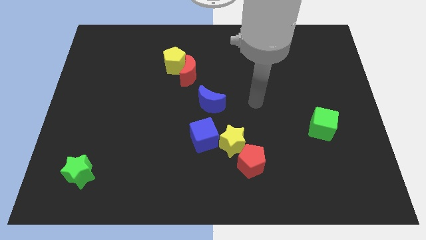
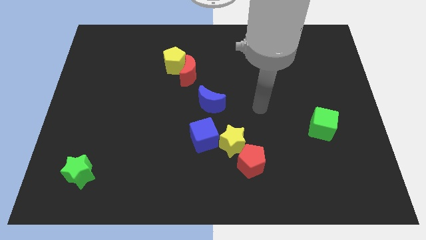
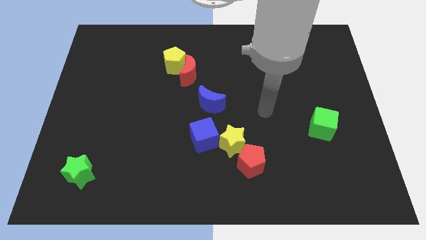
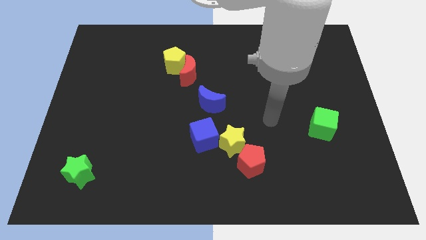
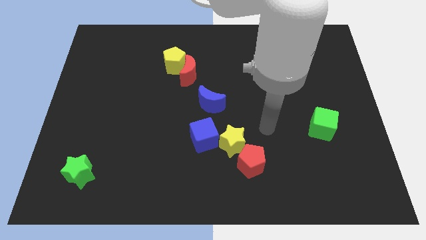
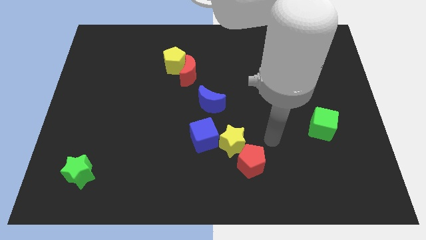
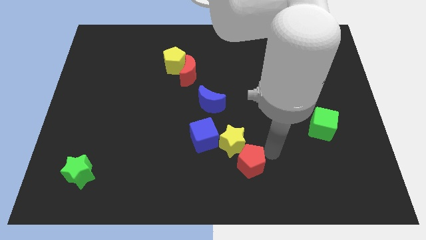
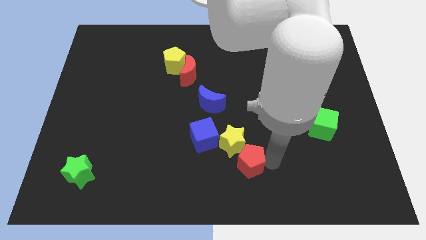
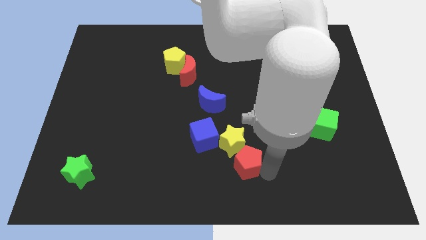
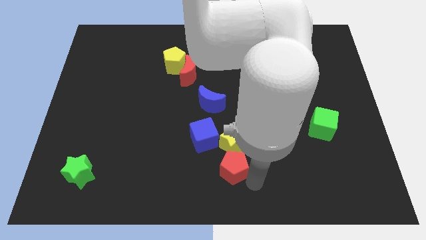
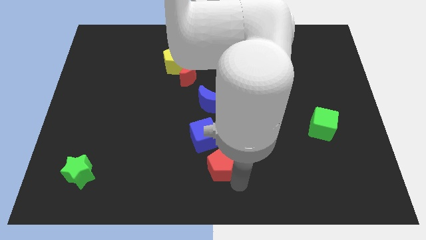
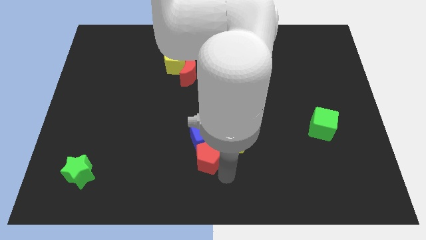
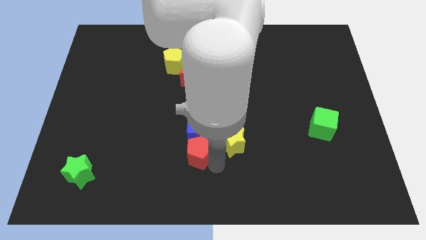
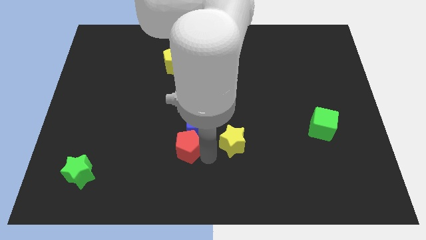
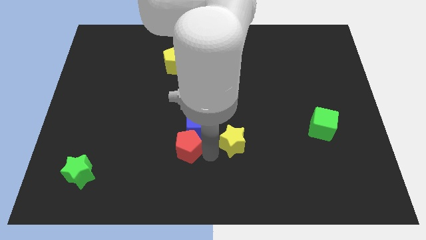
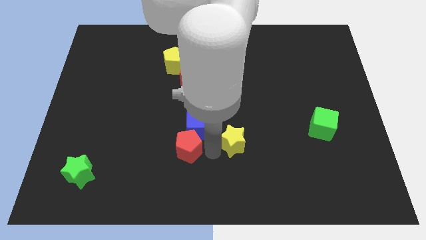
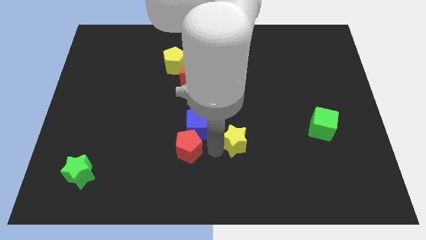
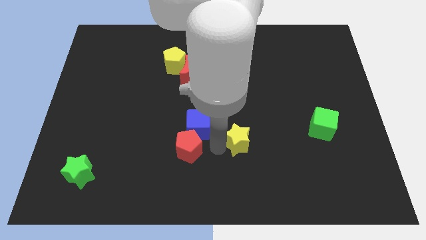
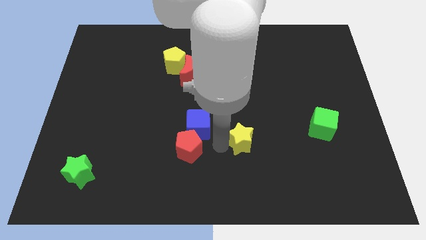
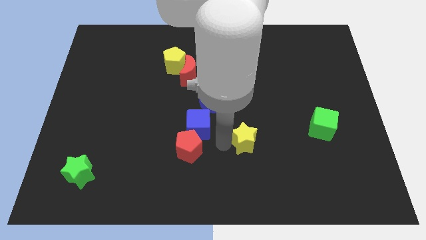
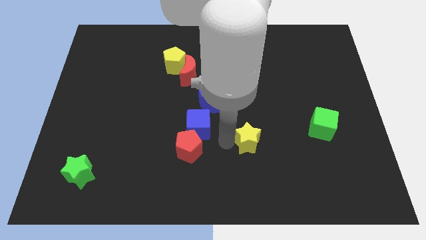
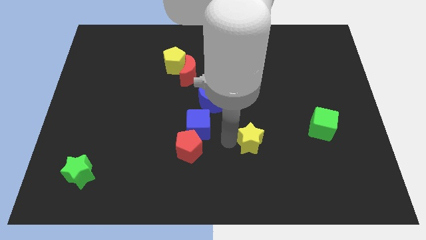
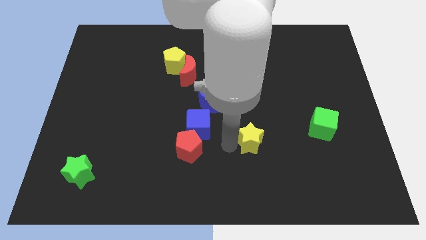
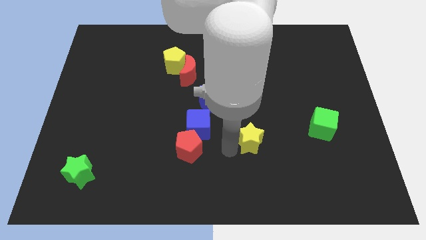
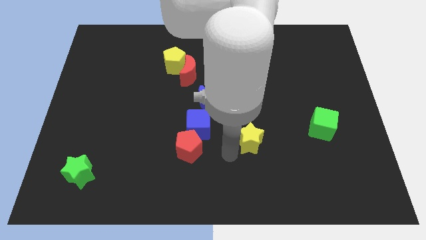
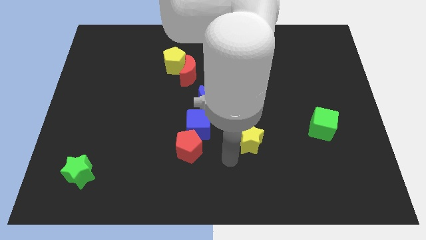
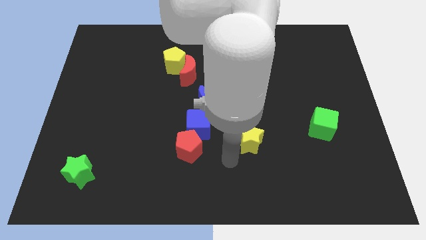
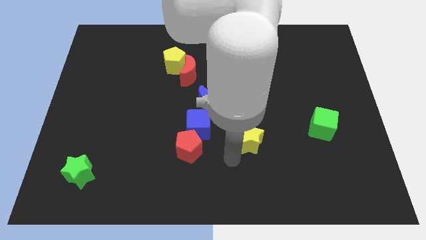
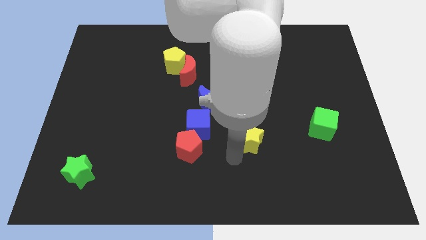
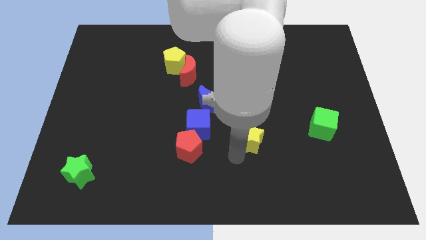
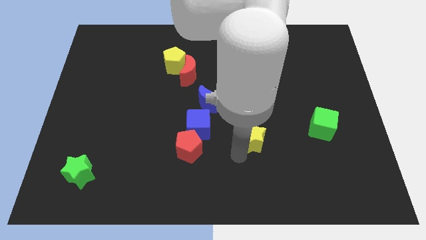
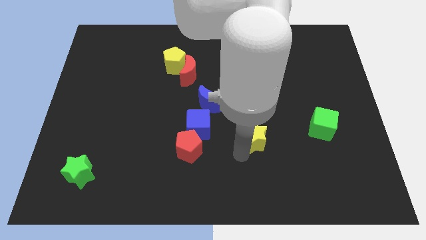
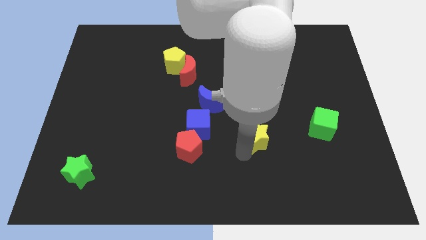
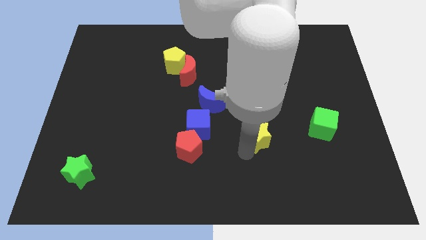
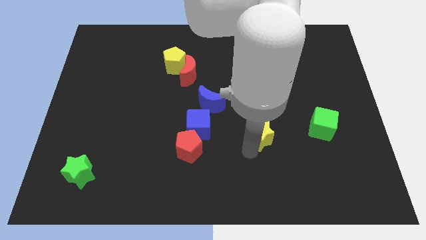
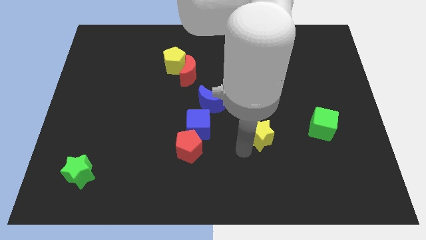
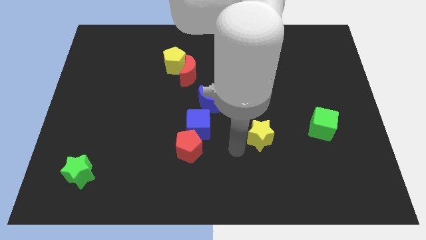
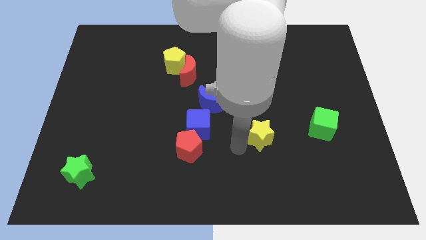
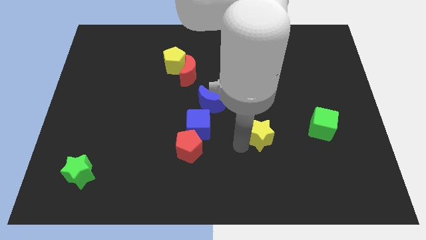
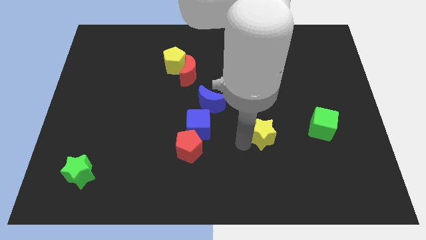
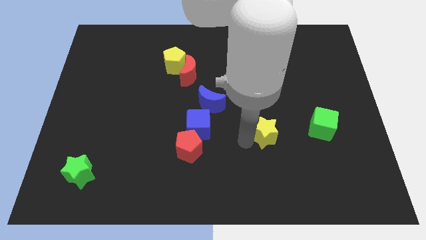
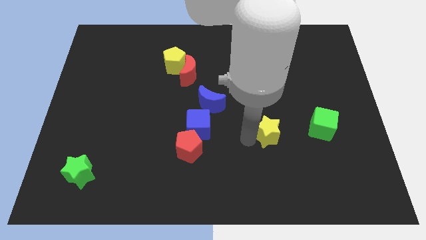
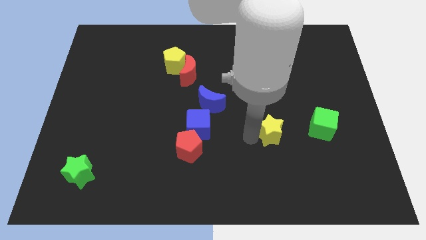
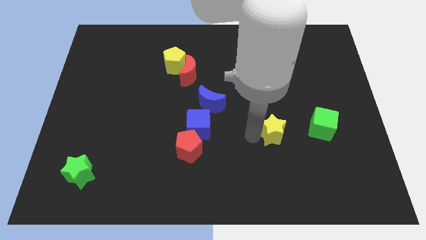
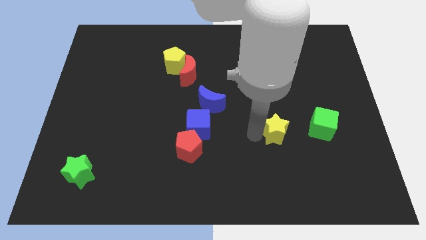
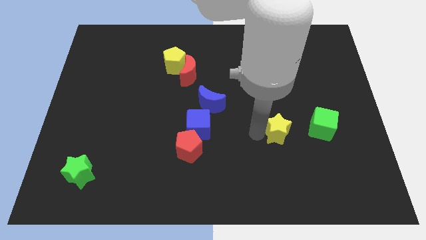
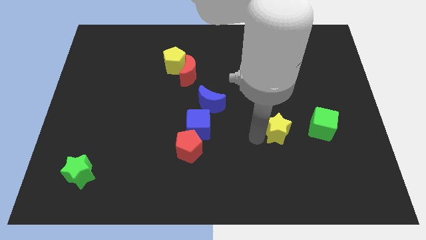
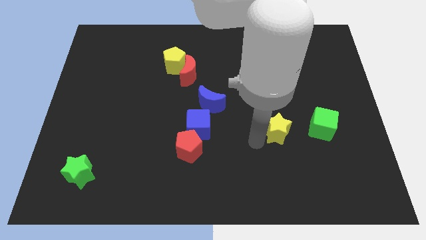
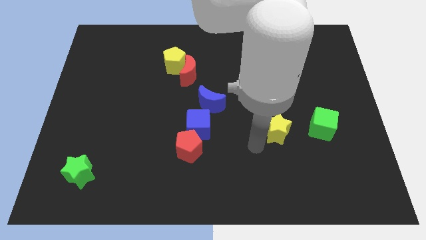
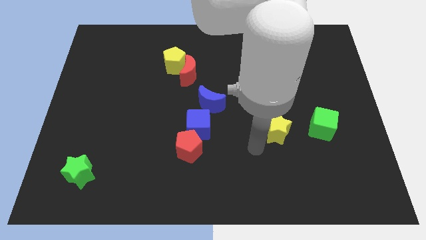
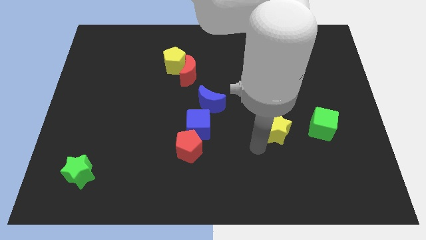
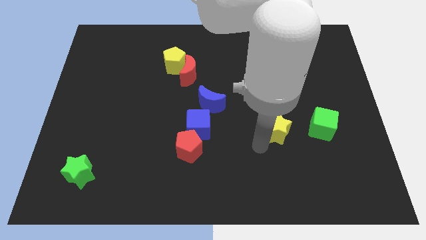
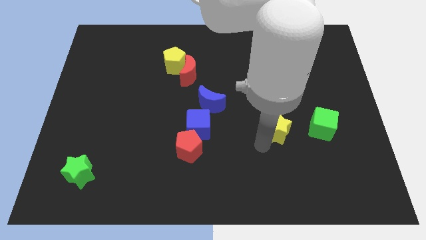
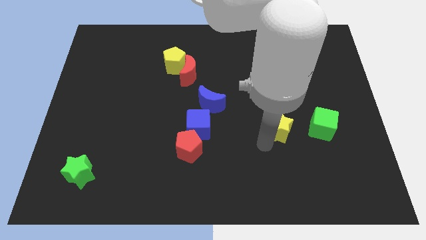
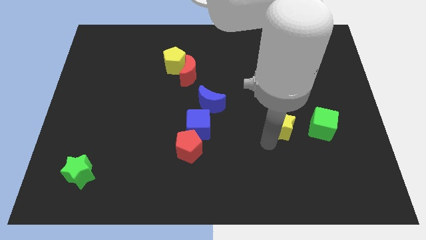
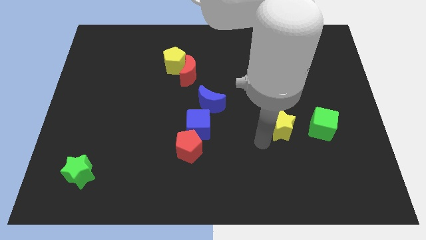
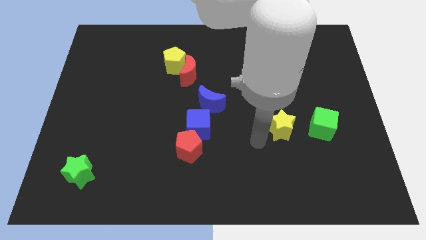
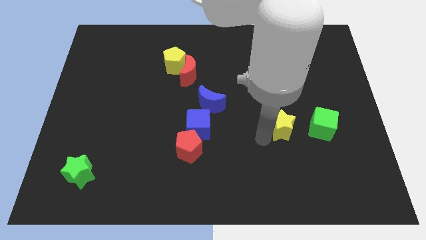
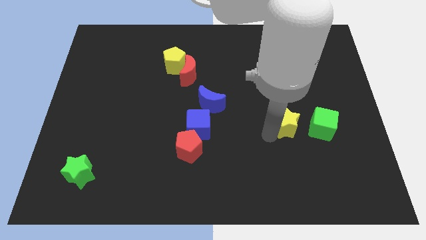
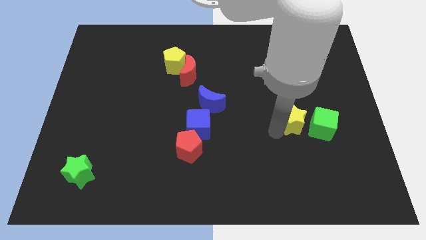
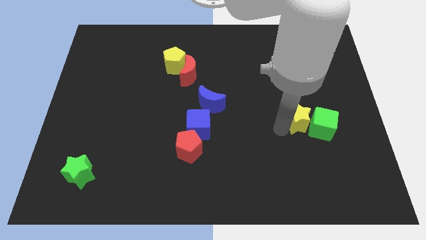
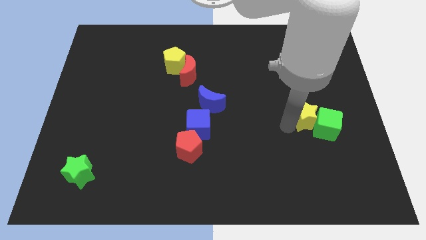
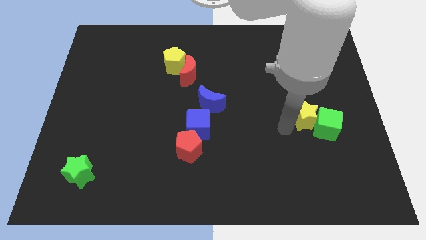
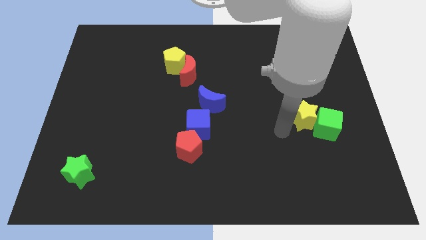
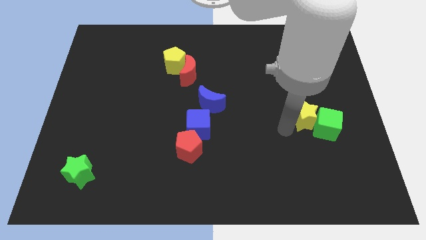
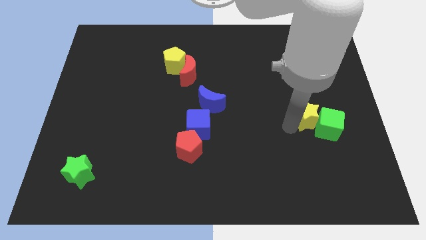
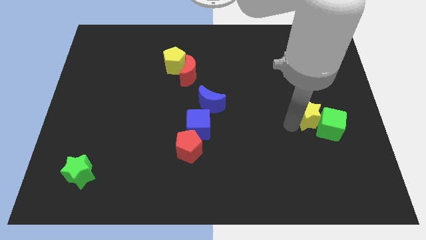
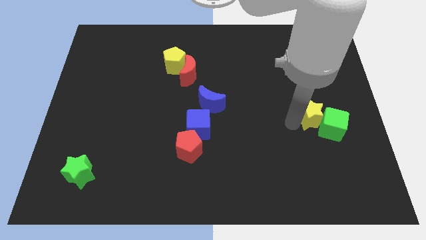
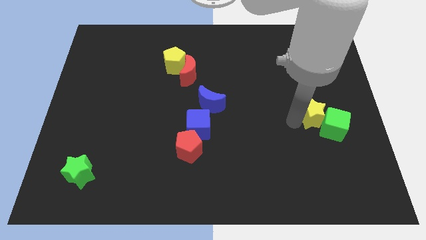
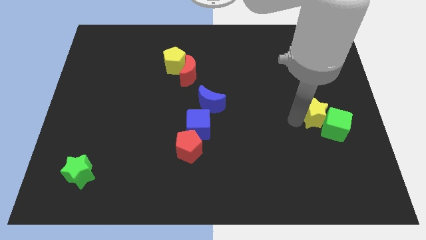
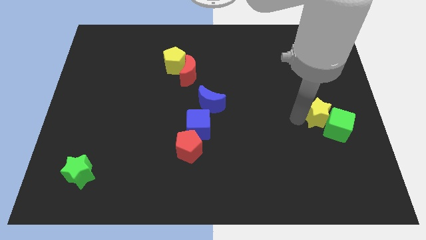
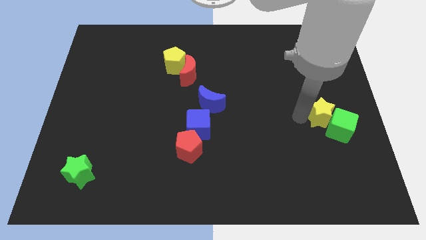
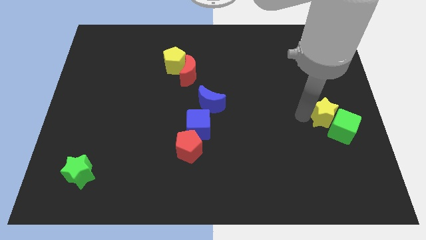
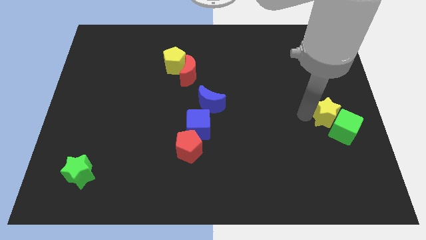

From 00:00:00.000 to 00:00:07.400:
put the yellow star to the right side

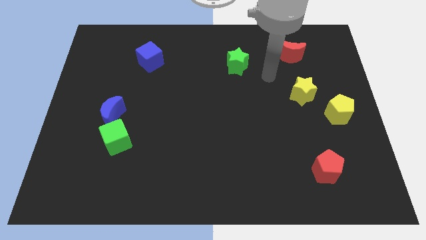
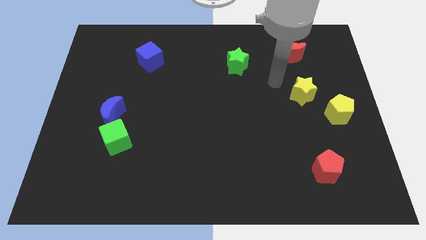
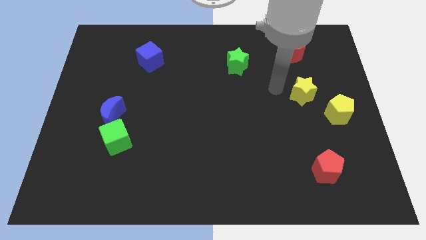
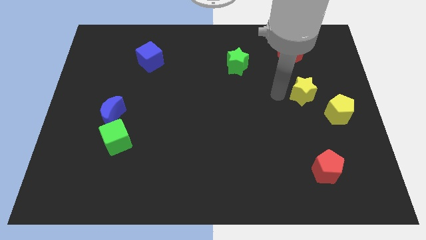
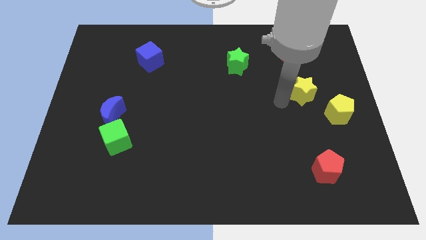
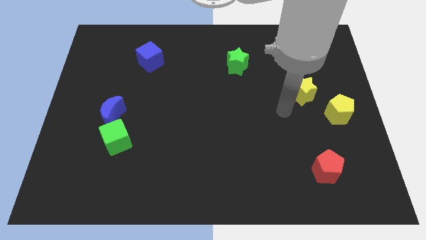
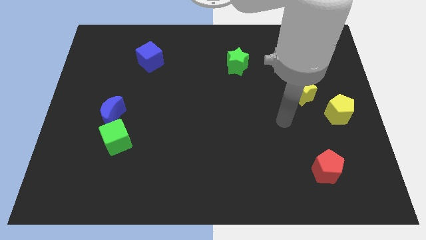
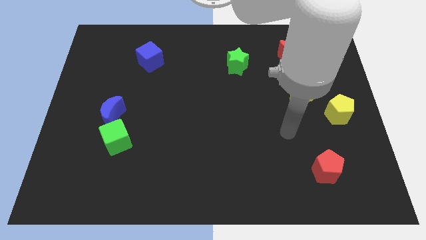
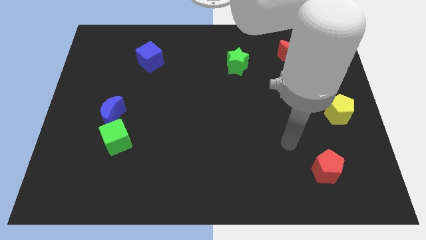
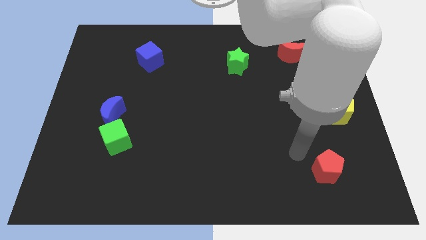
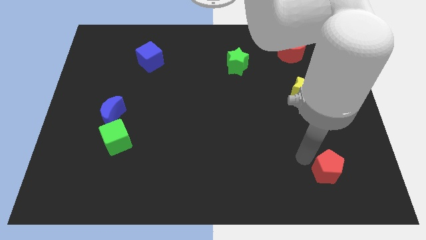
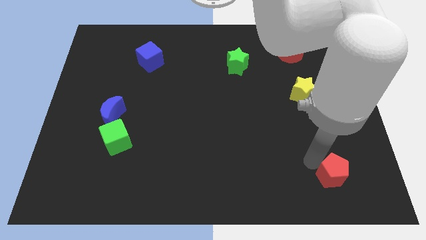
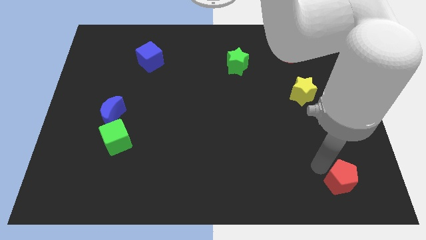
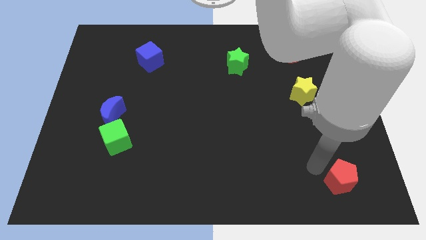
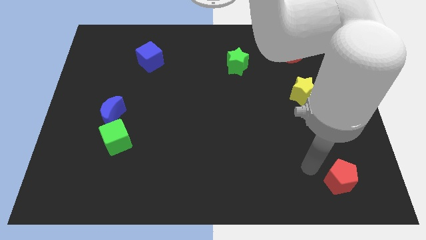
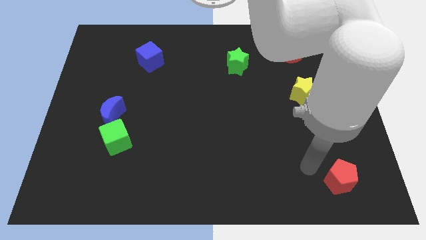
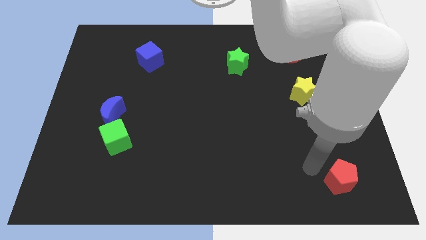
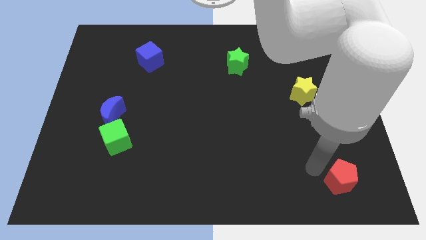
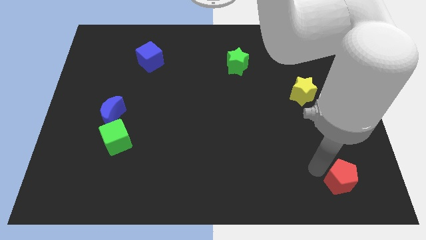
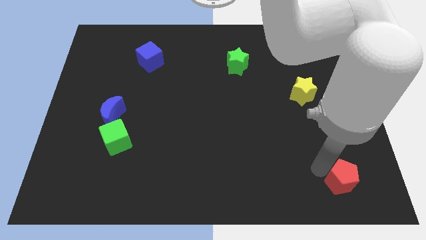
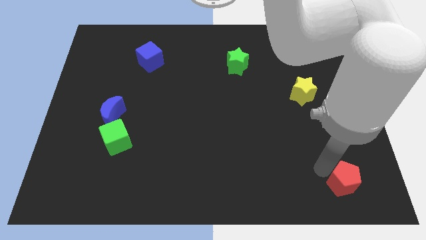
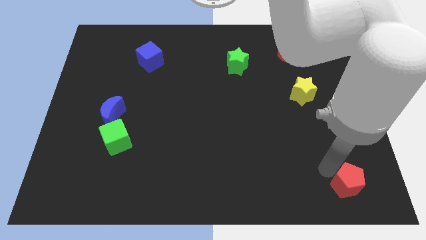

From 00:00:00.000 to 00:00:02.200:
push the red pentagon to the bottom right of the board
